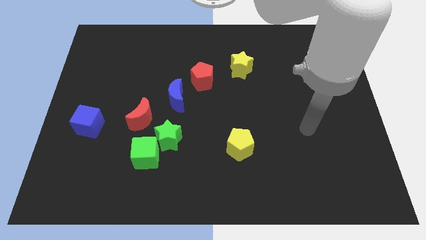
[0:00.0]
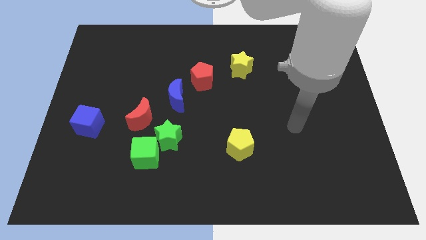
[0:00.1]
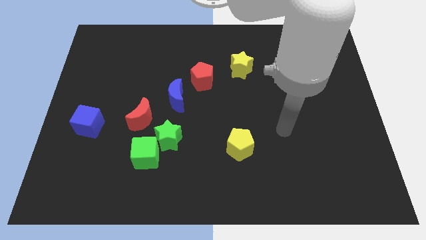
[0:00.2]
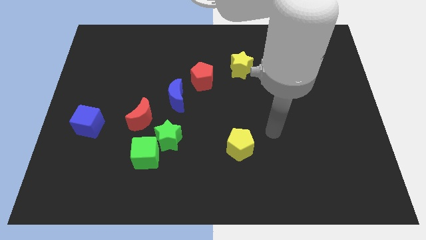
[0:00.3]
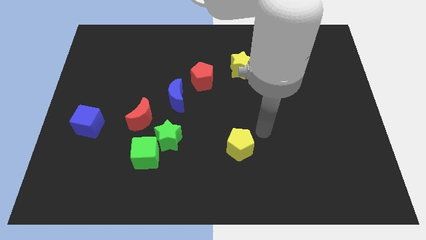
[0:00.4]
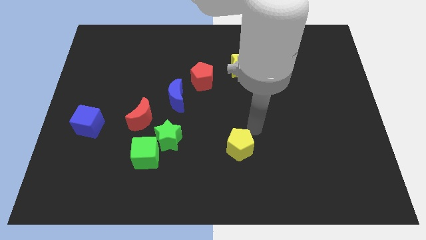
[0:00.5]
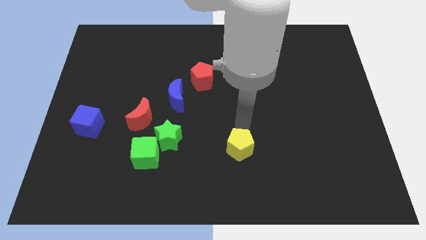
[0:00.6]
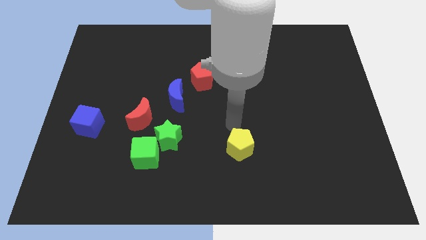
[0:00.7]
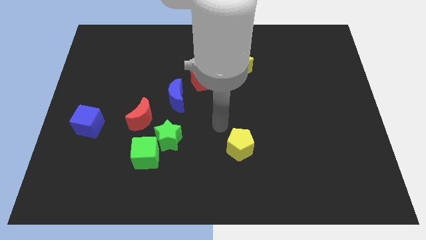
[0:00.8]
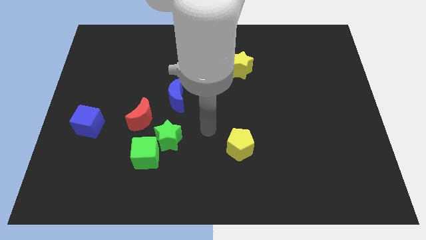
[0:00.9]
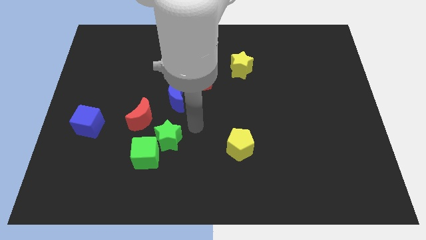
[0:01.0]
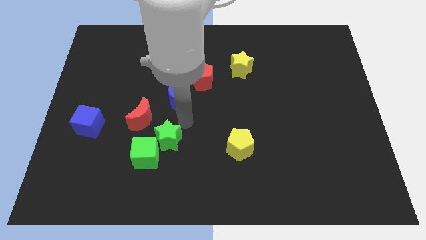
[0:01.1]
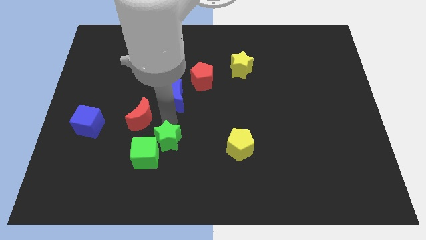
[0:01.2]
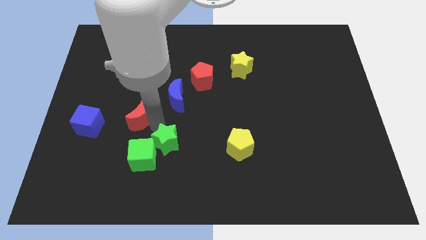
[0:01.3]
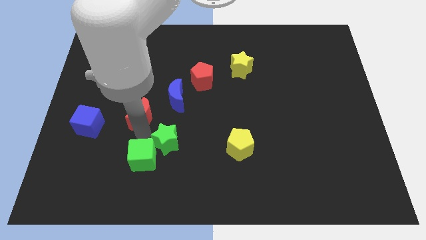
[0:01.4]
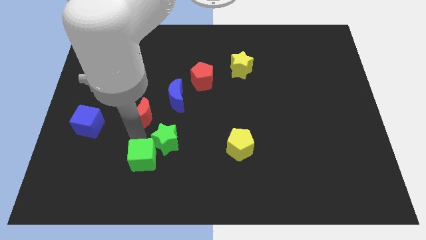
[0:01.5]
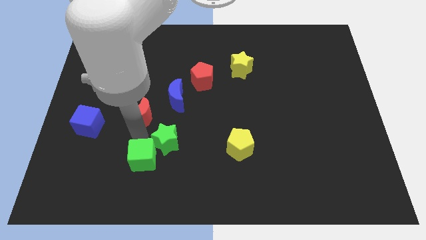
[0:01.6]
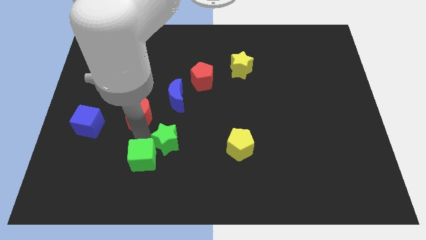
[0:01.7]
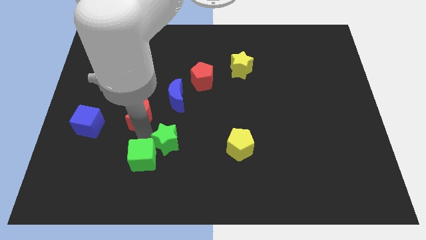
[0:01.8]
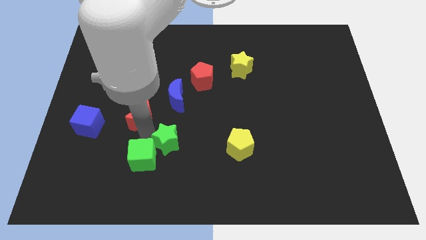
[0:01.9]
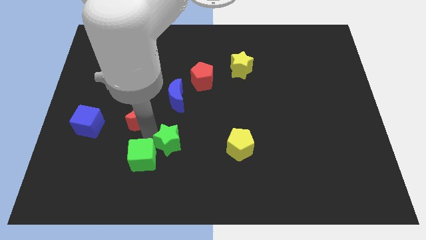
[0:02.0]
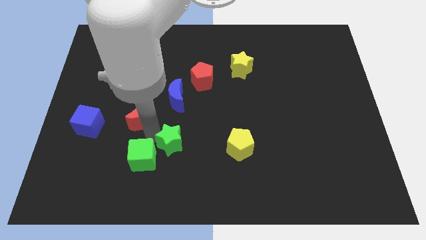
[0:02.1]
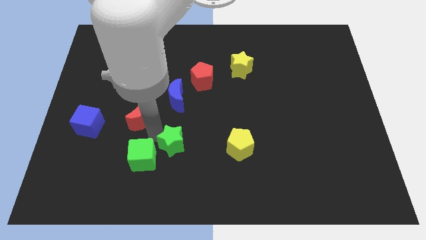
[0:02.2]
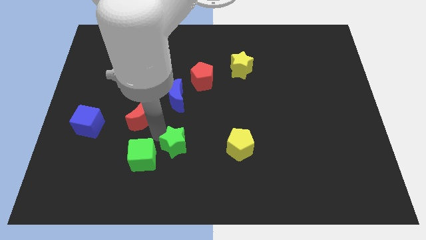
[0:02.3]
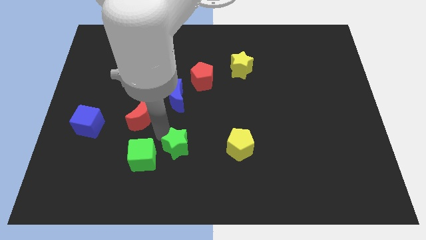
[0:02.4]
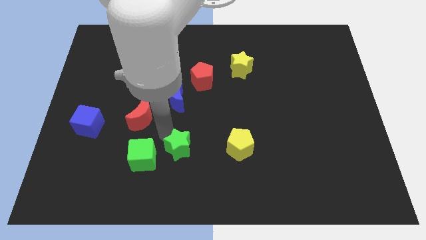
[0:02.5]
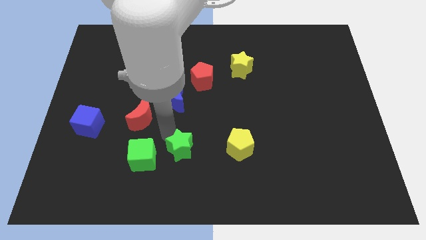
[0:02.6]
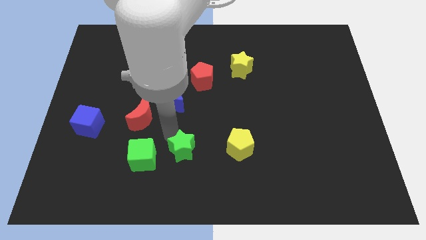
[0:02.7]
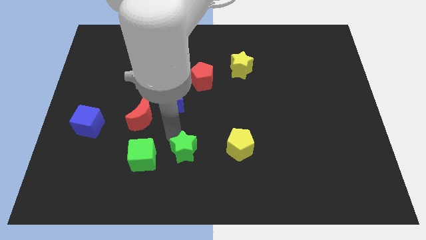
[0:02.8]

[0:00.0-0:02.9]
move the green star away from the green cube and red moon

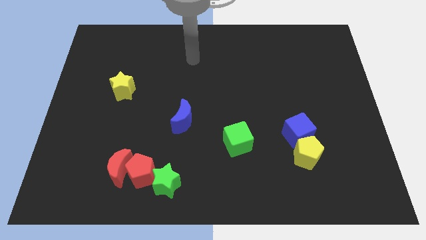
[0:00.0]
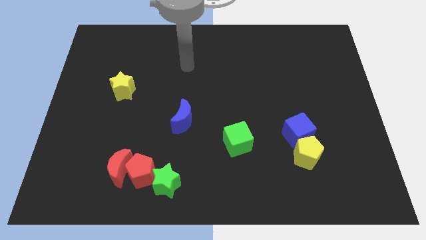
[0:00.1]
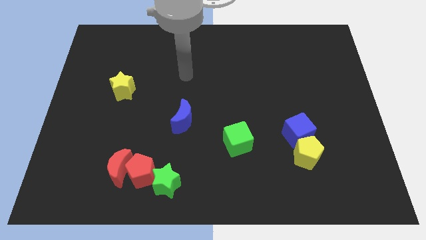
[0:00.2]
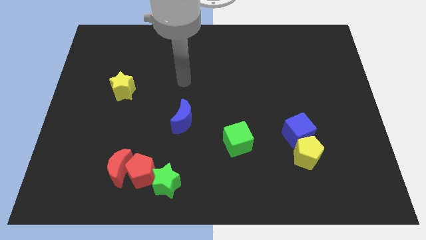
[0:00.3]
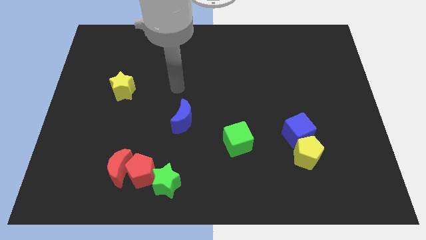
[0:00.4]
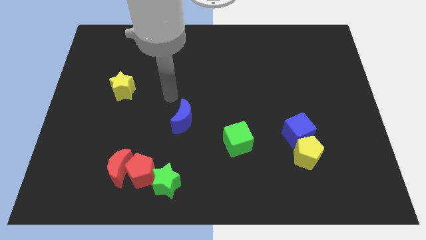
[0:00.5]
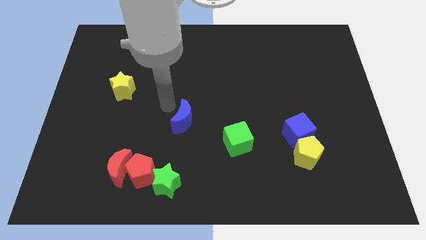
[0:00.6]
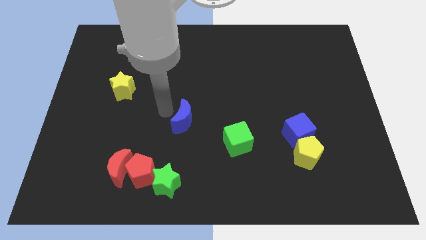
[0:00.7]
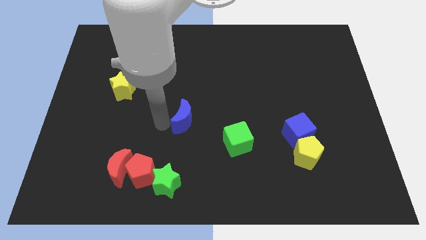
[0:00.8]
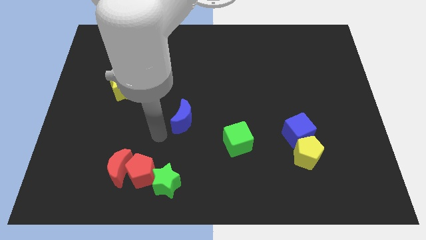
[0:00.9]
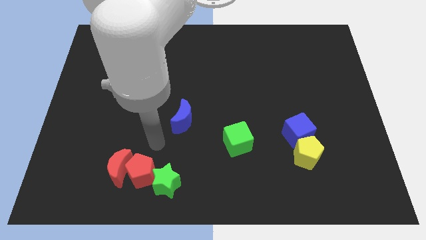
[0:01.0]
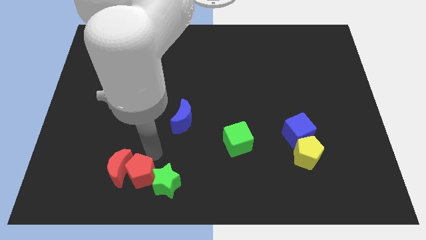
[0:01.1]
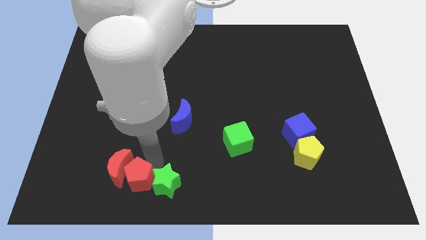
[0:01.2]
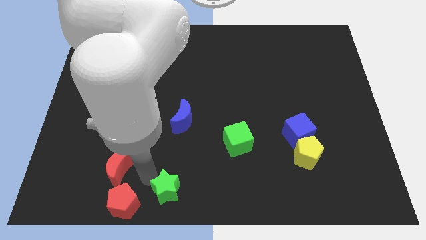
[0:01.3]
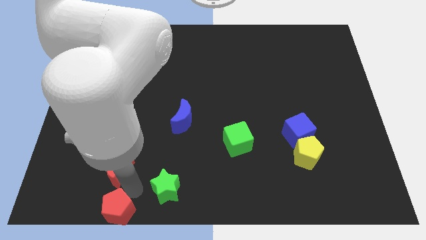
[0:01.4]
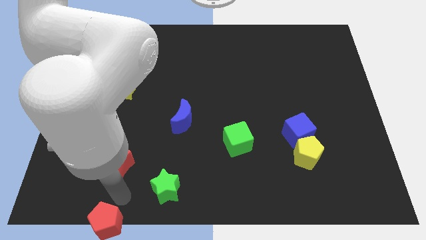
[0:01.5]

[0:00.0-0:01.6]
pull the red moon apart from the red pentagon

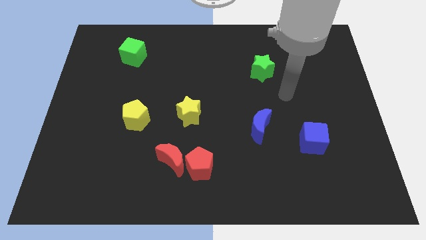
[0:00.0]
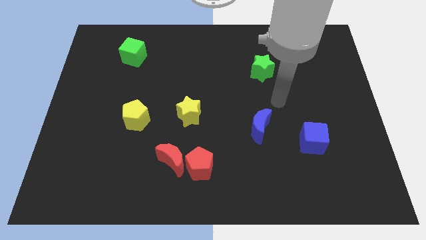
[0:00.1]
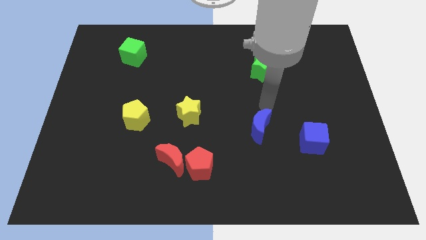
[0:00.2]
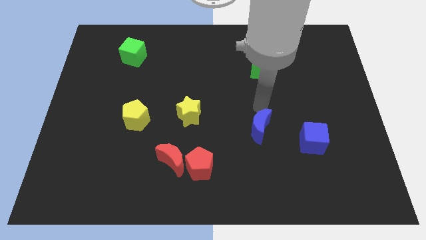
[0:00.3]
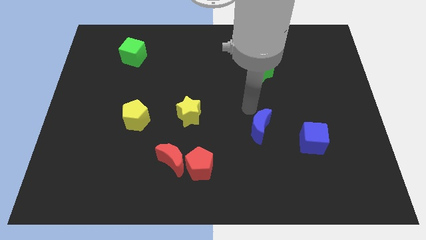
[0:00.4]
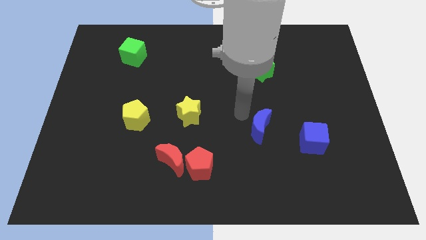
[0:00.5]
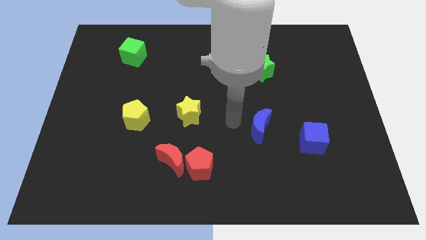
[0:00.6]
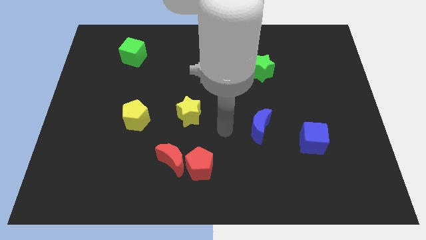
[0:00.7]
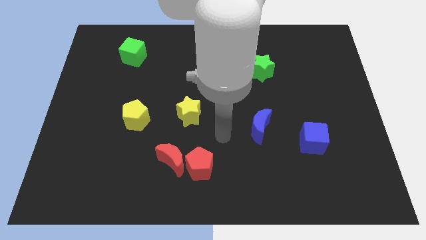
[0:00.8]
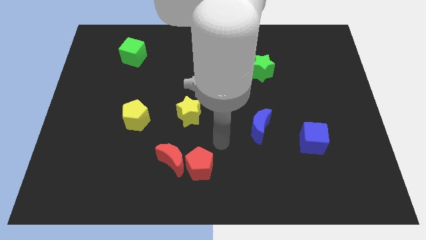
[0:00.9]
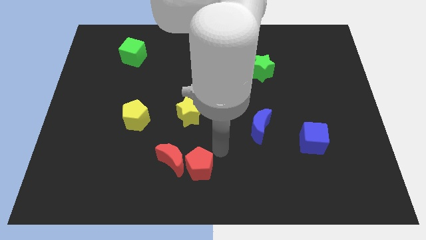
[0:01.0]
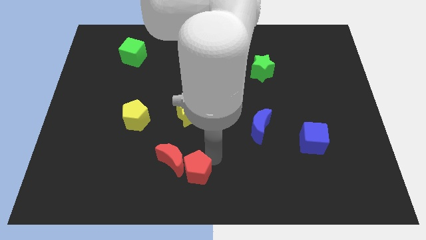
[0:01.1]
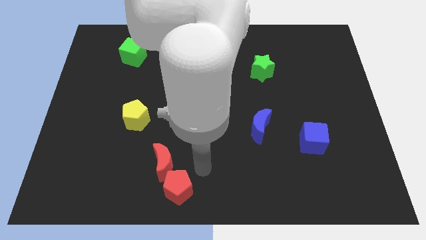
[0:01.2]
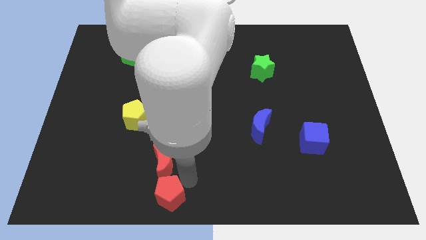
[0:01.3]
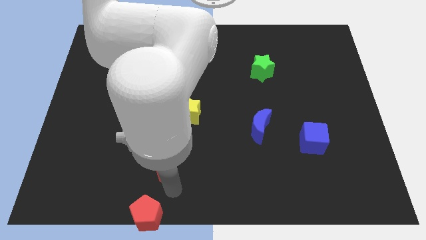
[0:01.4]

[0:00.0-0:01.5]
move the red moon away from the red pentagon

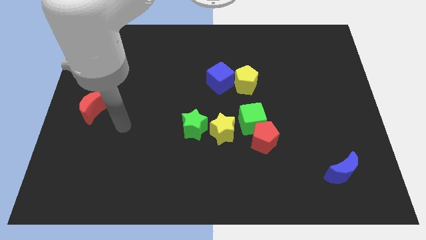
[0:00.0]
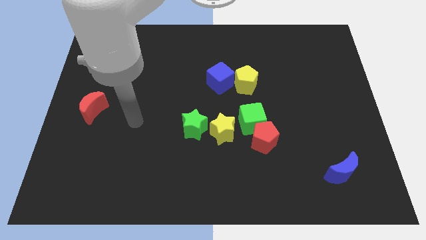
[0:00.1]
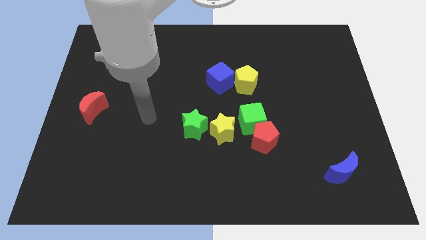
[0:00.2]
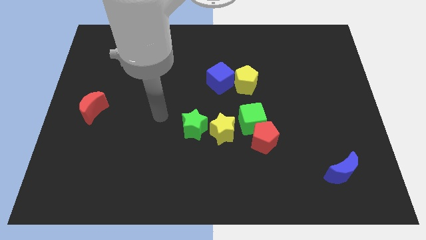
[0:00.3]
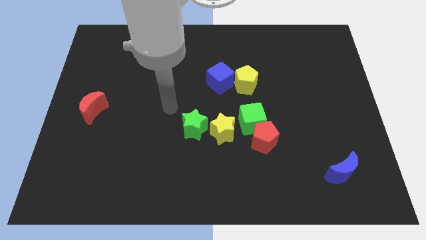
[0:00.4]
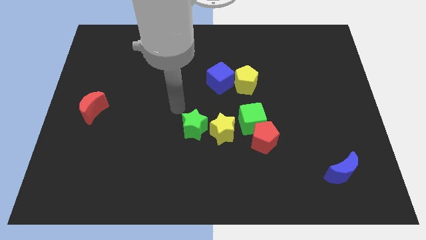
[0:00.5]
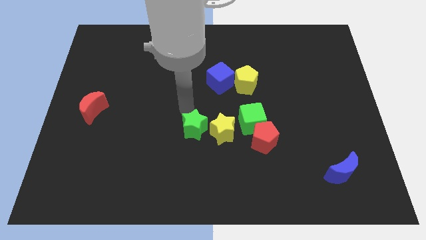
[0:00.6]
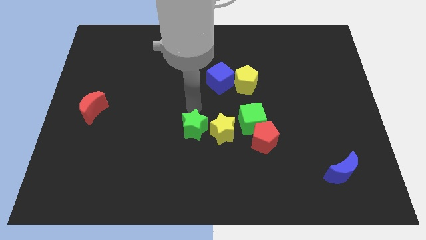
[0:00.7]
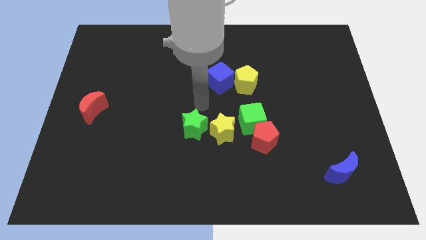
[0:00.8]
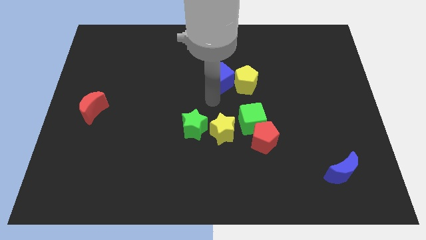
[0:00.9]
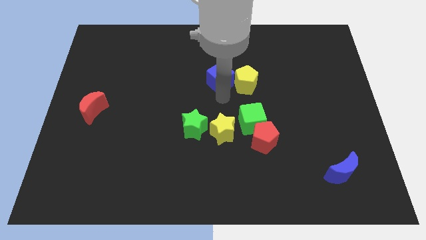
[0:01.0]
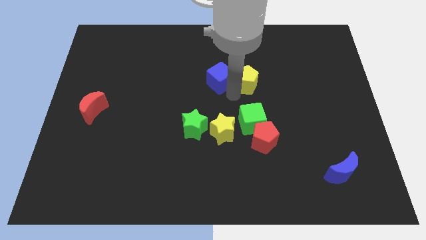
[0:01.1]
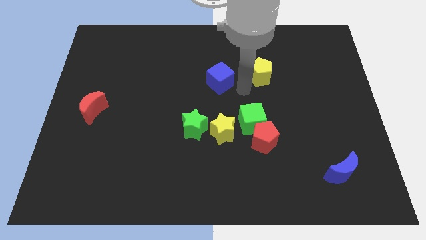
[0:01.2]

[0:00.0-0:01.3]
move the blue cube away from the yellow pentagon

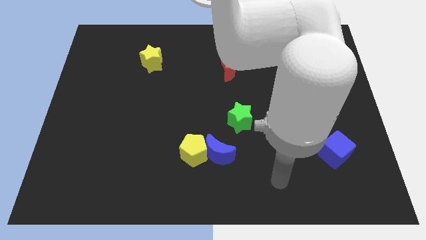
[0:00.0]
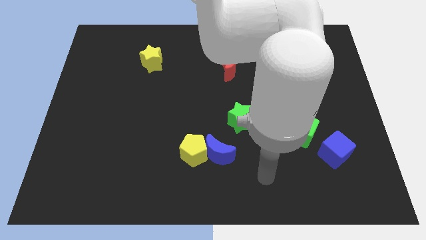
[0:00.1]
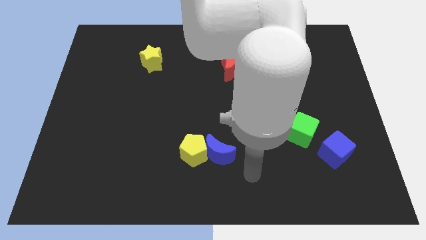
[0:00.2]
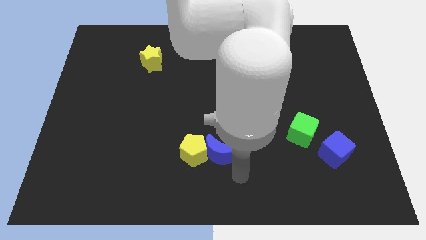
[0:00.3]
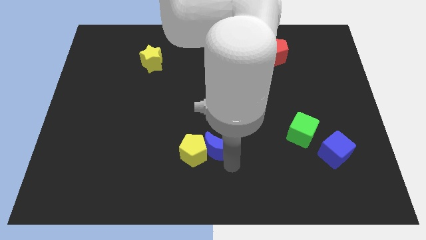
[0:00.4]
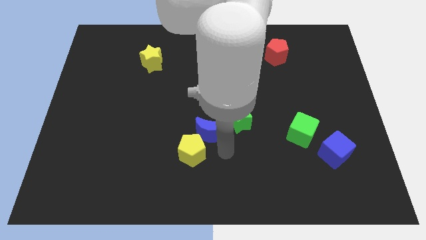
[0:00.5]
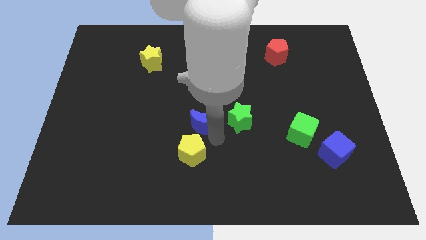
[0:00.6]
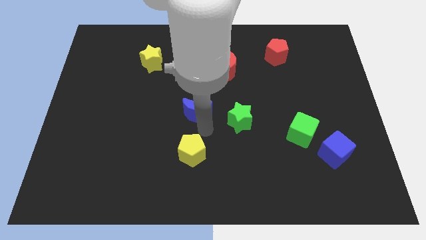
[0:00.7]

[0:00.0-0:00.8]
separate the yellow pentagon from the blue moon

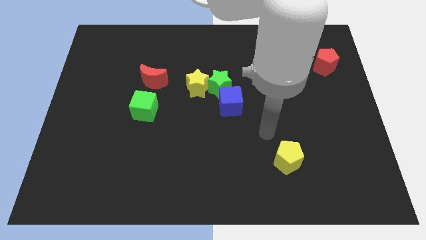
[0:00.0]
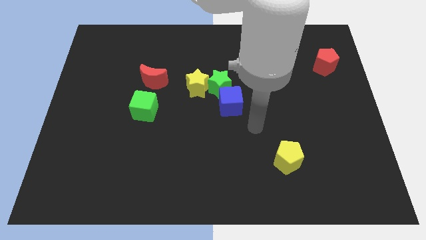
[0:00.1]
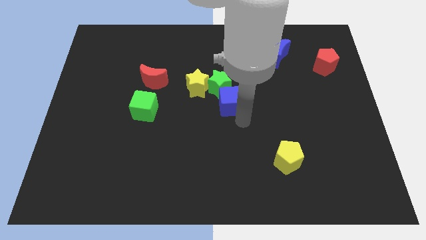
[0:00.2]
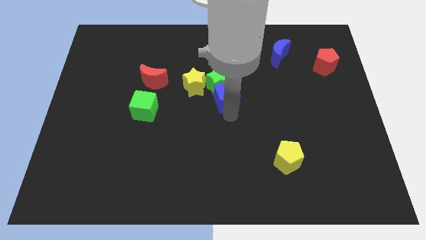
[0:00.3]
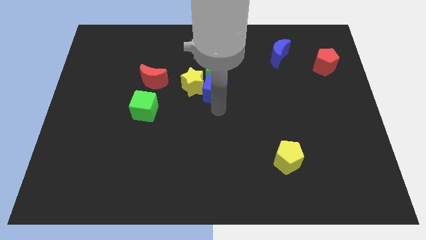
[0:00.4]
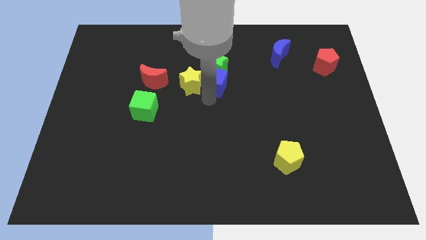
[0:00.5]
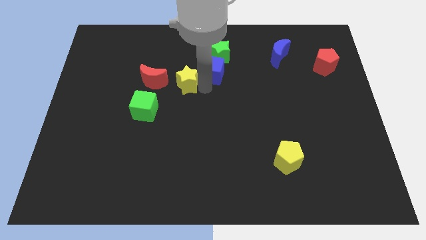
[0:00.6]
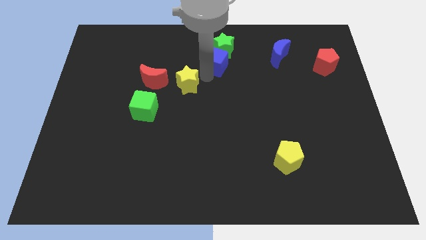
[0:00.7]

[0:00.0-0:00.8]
separate the green star from the yellow star and blue cube

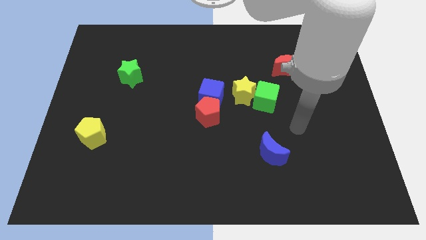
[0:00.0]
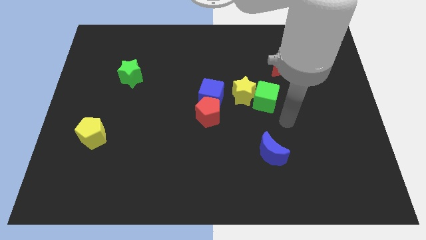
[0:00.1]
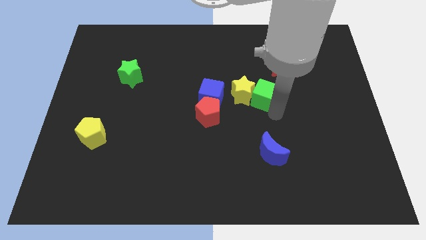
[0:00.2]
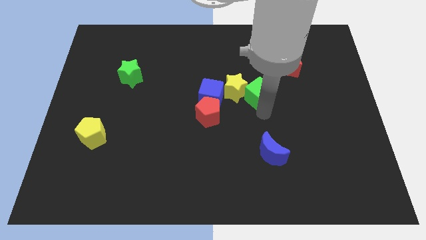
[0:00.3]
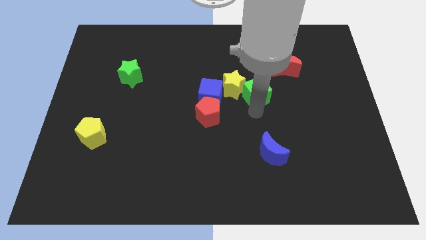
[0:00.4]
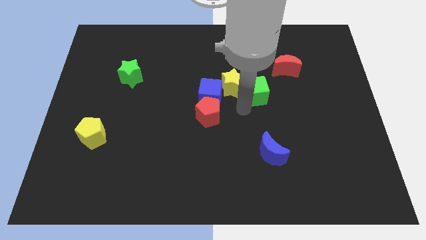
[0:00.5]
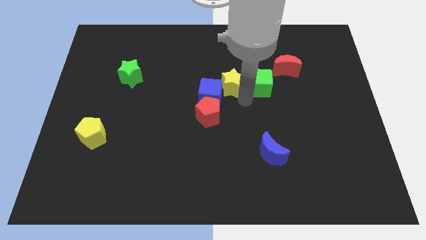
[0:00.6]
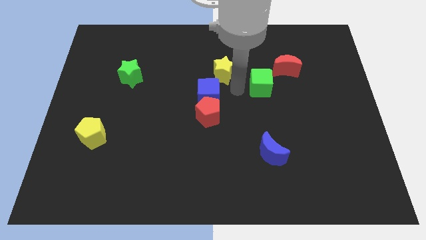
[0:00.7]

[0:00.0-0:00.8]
pull the green cube apart from the yellow star
